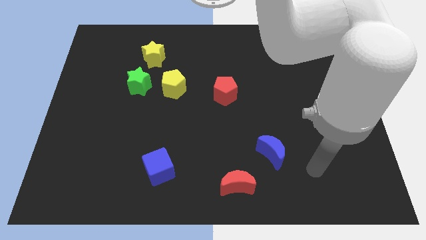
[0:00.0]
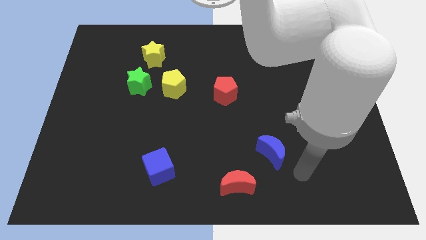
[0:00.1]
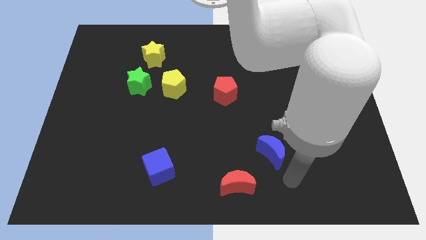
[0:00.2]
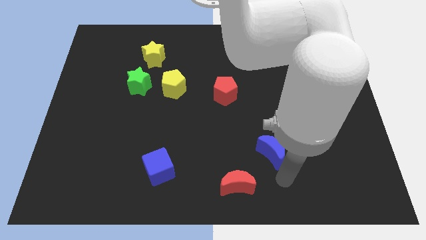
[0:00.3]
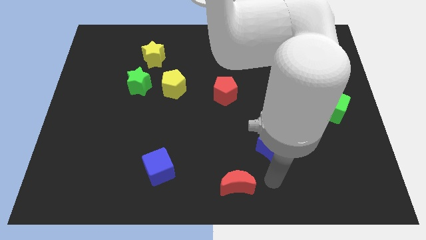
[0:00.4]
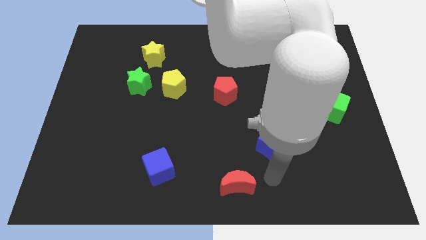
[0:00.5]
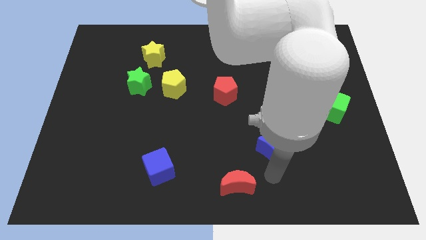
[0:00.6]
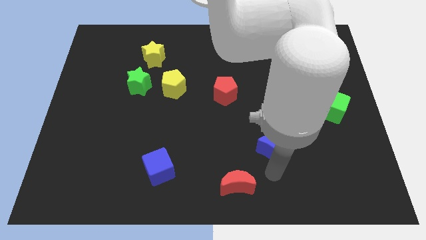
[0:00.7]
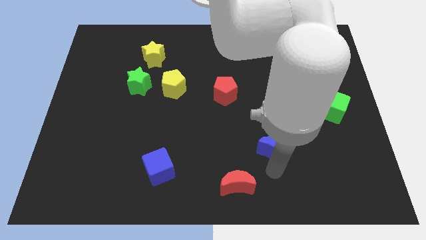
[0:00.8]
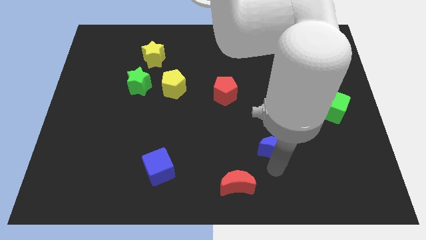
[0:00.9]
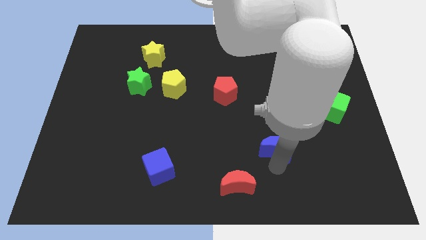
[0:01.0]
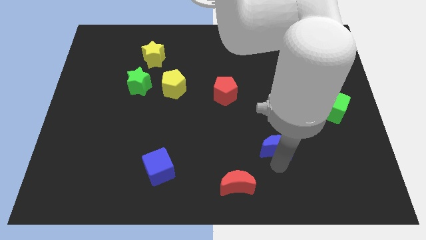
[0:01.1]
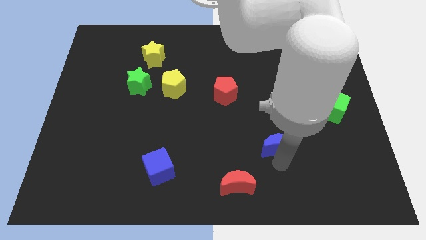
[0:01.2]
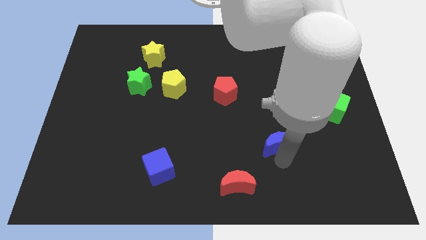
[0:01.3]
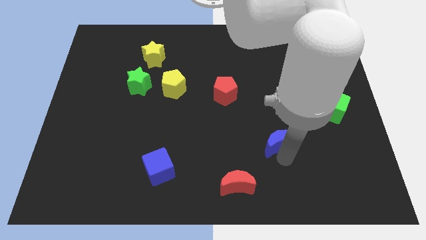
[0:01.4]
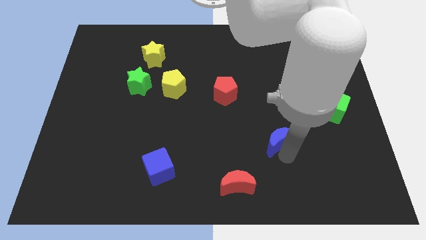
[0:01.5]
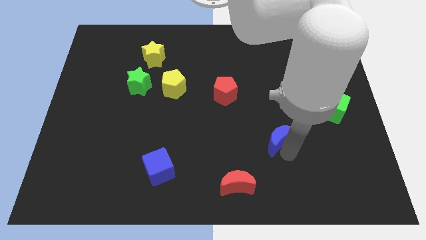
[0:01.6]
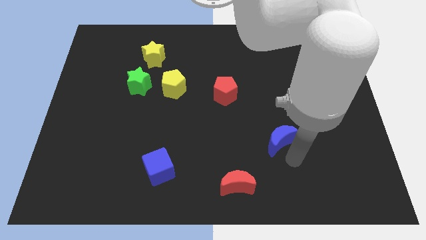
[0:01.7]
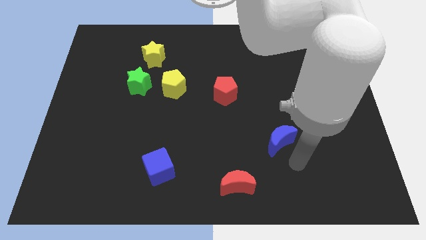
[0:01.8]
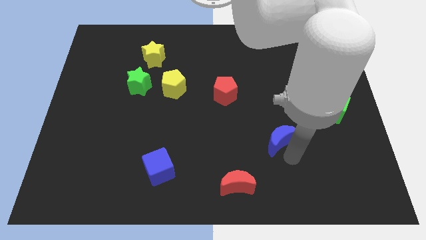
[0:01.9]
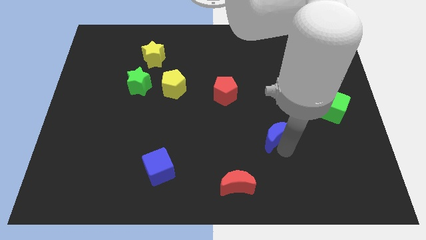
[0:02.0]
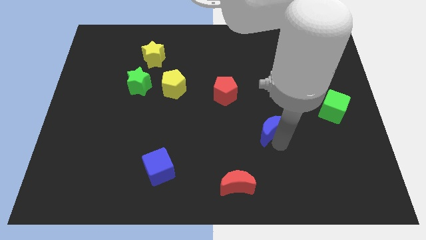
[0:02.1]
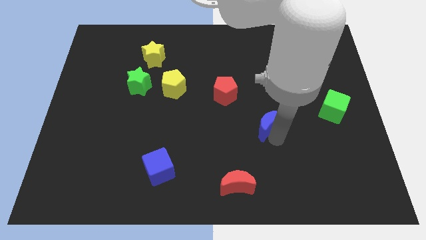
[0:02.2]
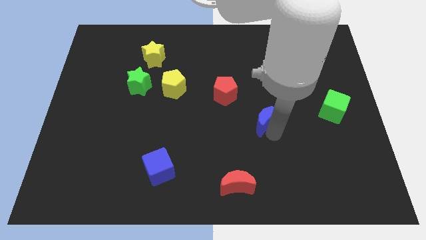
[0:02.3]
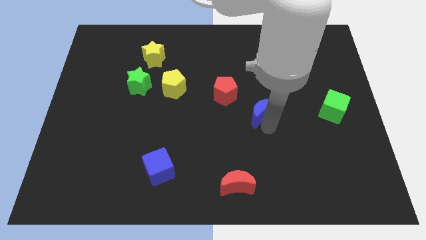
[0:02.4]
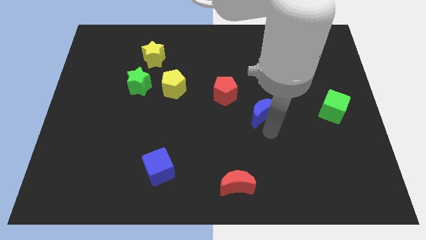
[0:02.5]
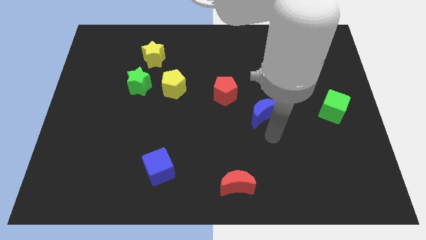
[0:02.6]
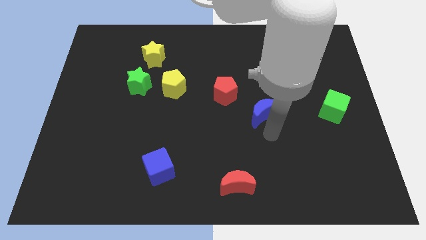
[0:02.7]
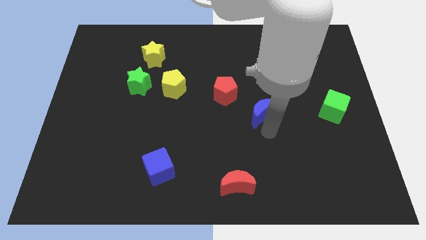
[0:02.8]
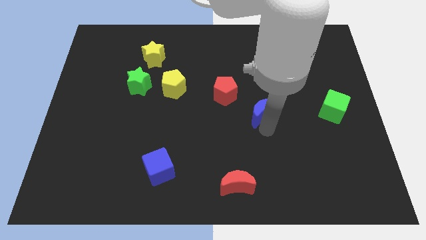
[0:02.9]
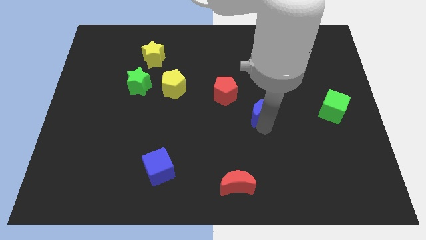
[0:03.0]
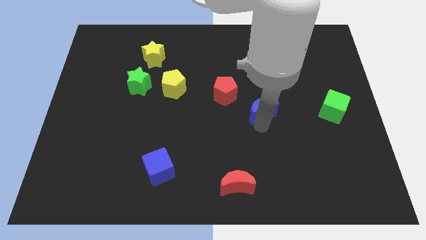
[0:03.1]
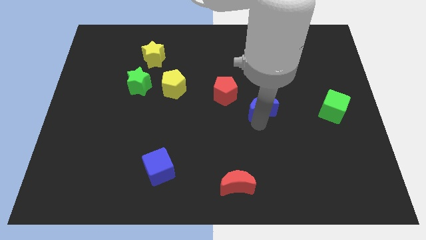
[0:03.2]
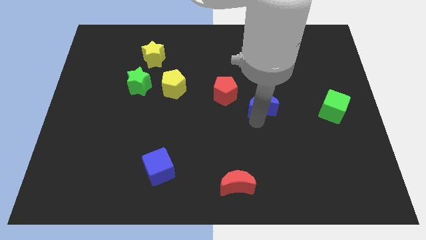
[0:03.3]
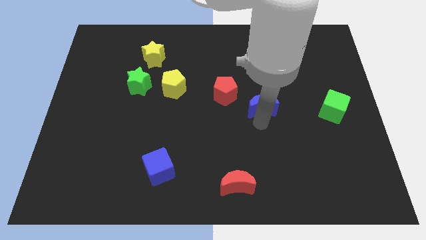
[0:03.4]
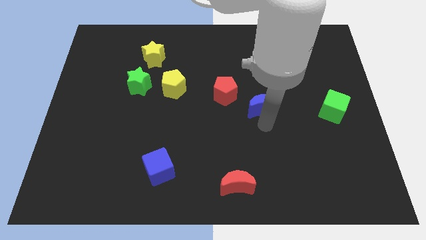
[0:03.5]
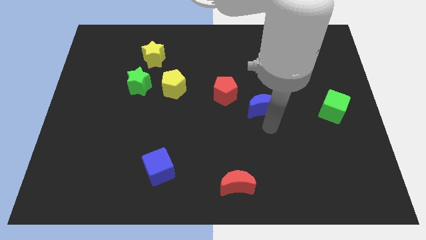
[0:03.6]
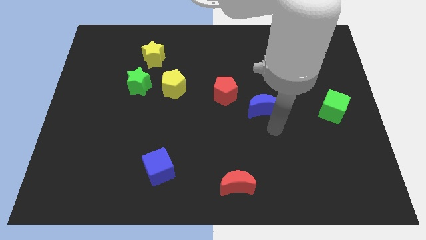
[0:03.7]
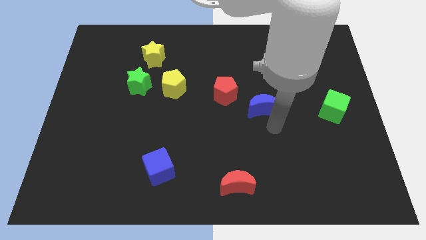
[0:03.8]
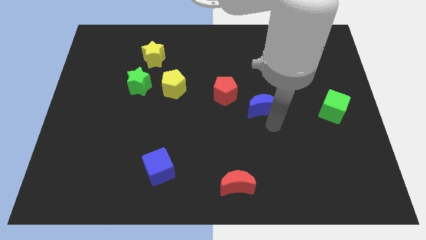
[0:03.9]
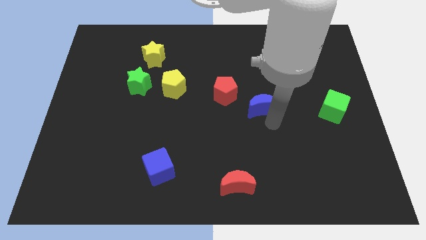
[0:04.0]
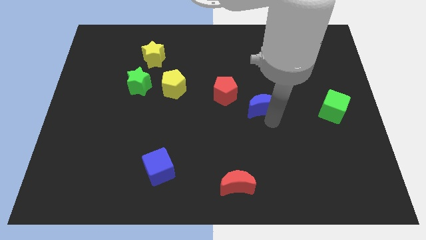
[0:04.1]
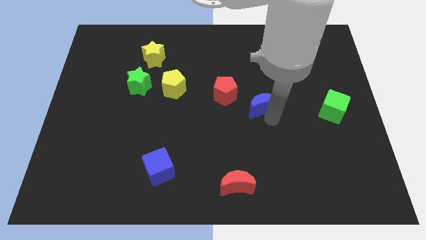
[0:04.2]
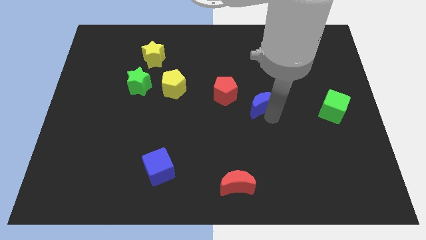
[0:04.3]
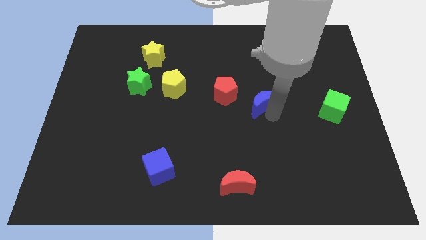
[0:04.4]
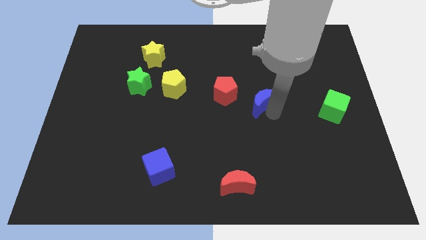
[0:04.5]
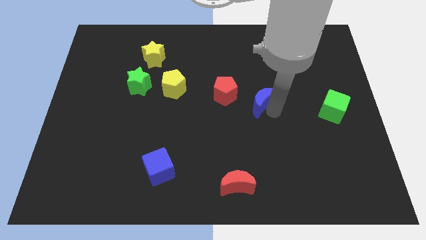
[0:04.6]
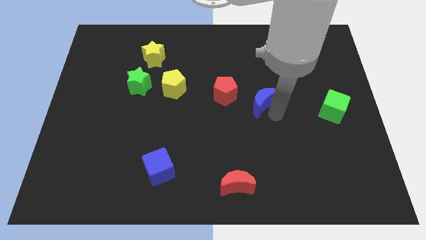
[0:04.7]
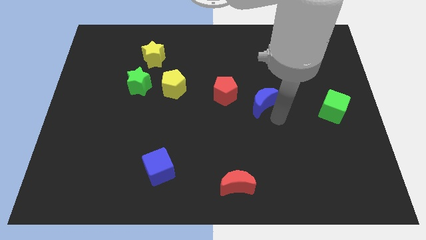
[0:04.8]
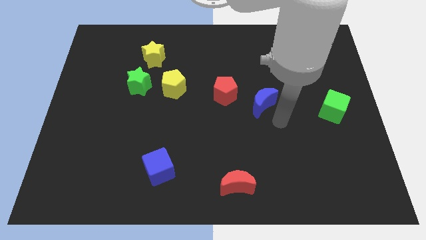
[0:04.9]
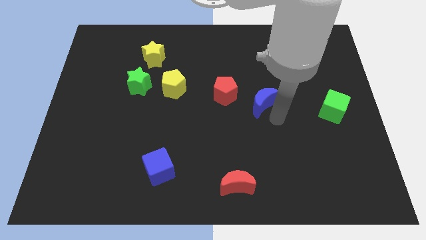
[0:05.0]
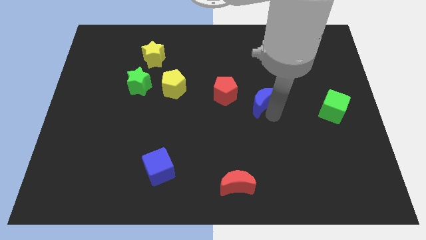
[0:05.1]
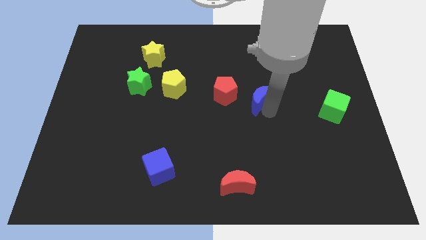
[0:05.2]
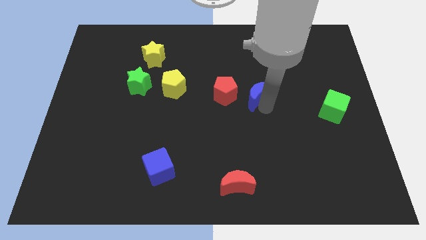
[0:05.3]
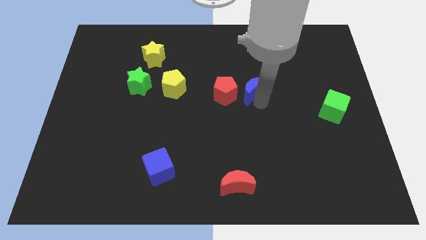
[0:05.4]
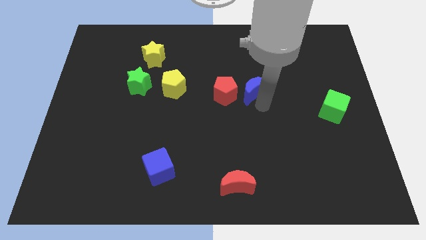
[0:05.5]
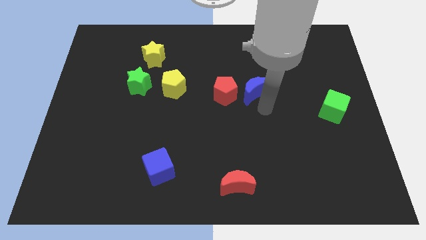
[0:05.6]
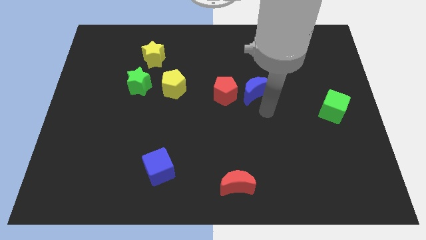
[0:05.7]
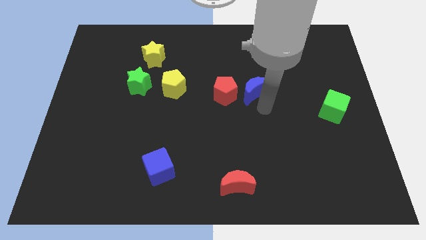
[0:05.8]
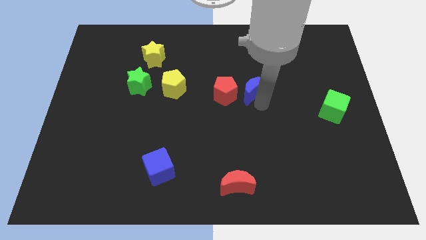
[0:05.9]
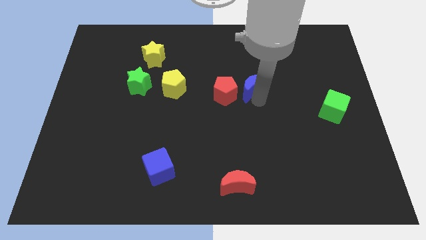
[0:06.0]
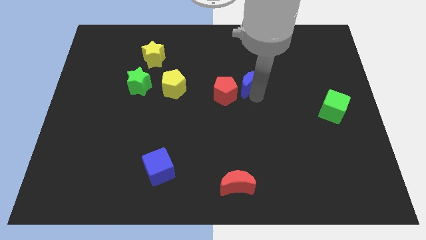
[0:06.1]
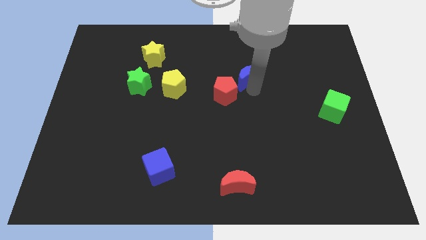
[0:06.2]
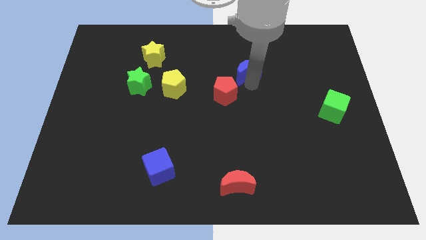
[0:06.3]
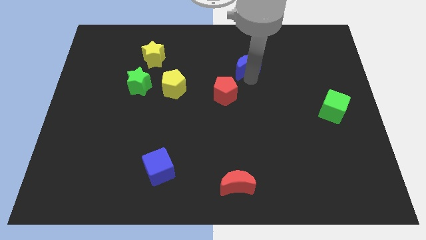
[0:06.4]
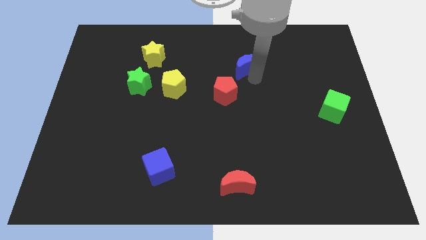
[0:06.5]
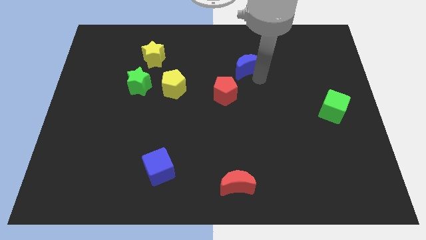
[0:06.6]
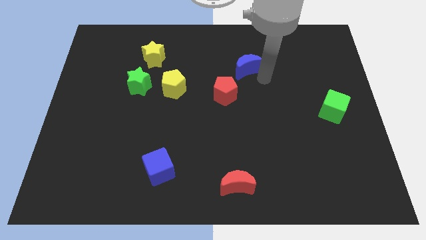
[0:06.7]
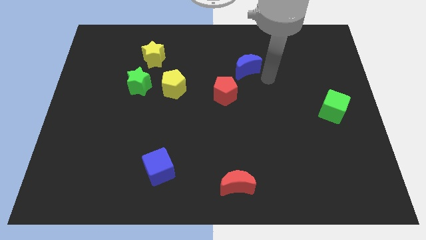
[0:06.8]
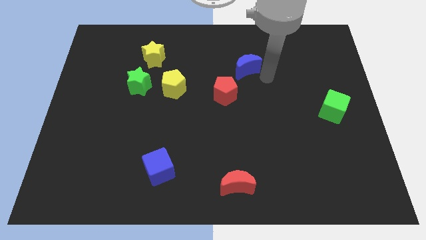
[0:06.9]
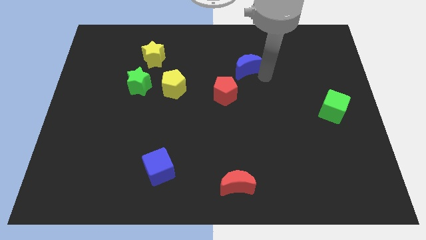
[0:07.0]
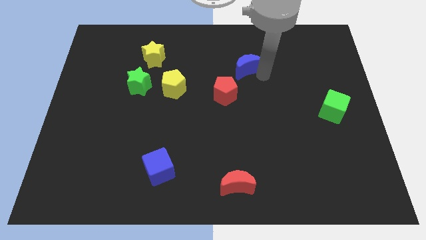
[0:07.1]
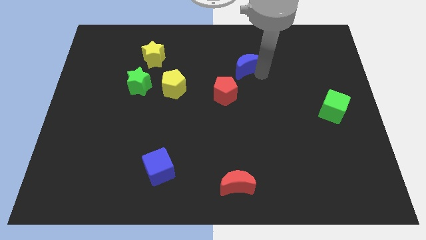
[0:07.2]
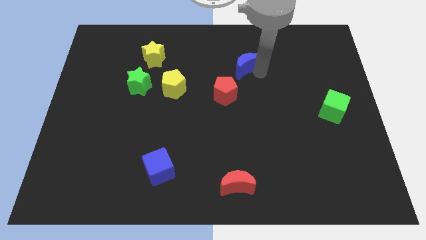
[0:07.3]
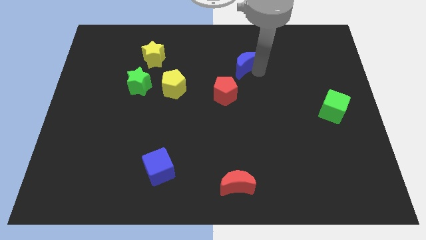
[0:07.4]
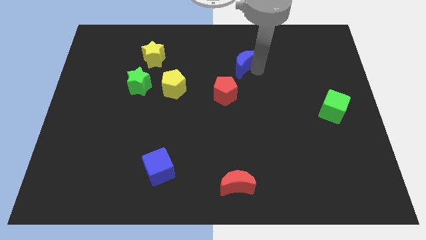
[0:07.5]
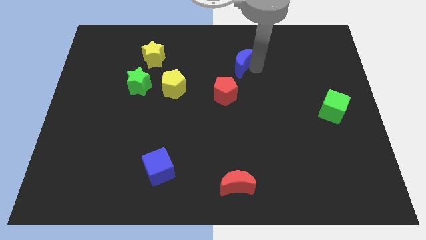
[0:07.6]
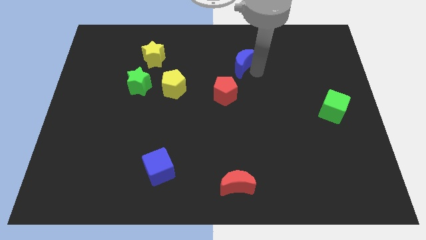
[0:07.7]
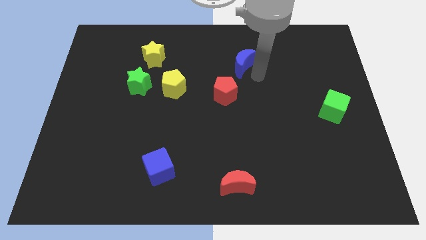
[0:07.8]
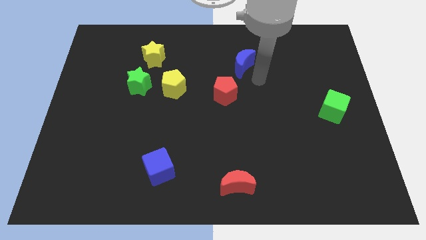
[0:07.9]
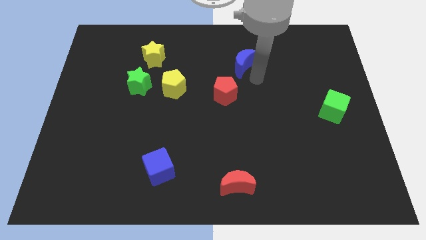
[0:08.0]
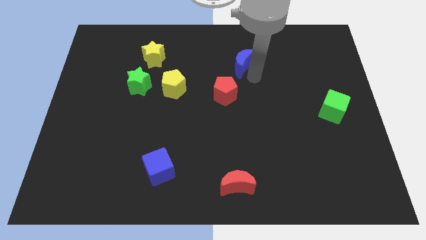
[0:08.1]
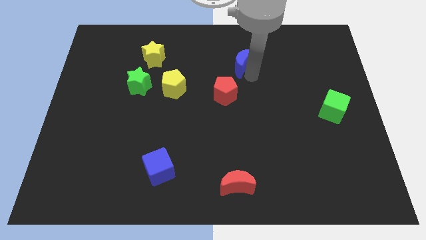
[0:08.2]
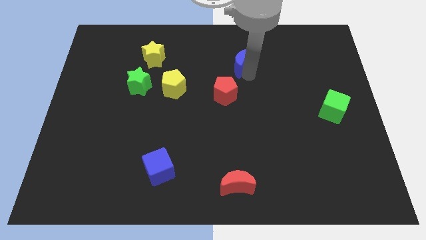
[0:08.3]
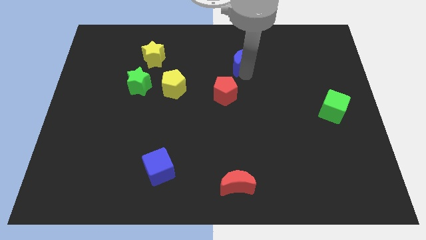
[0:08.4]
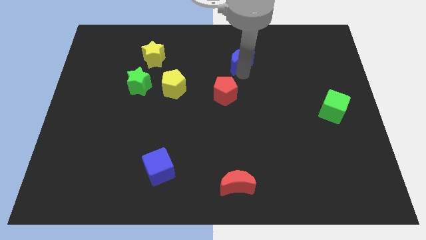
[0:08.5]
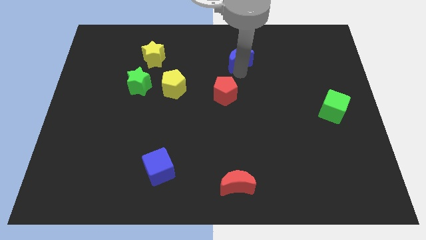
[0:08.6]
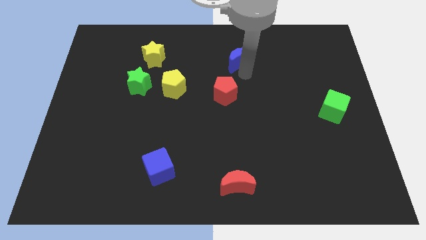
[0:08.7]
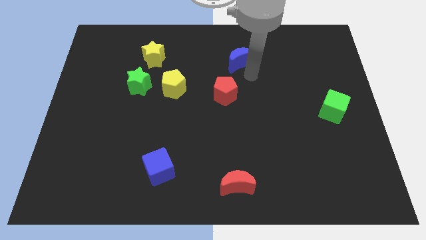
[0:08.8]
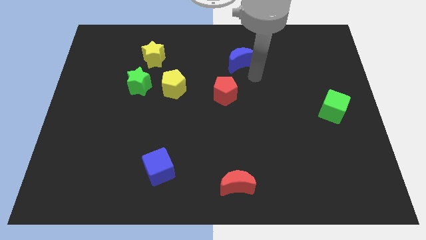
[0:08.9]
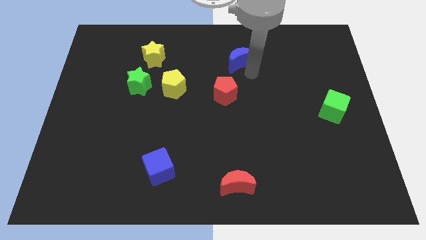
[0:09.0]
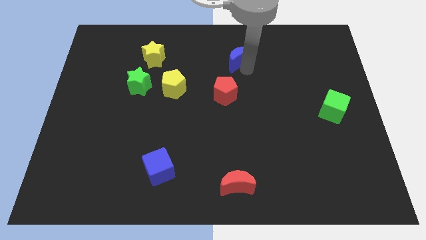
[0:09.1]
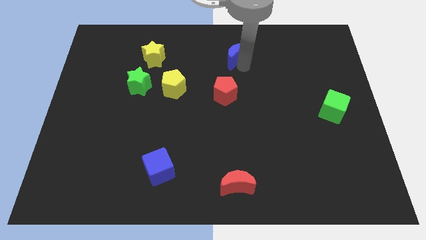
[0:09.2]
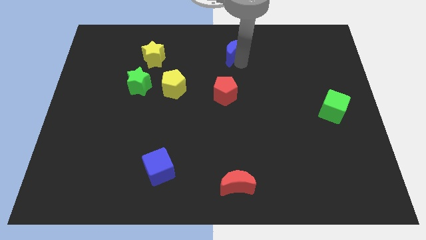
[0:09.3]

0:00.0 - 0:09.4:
move the blue moon to the towards your base
